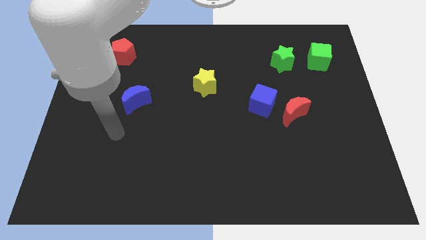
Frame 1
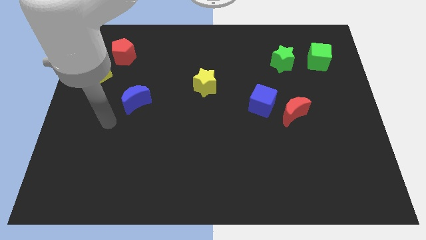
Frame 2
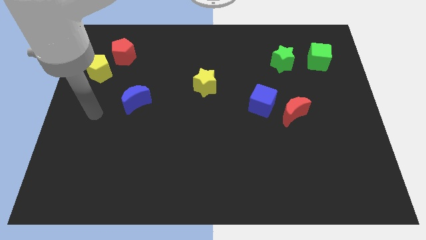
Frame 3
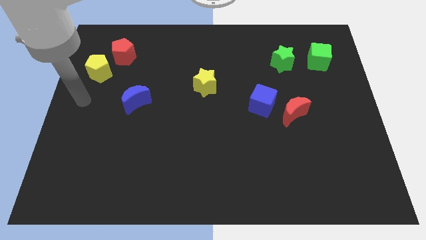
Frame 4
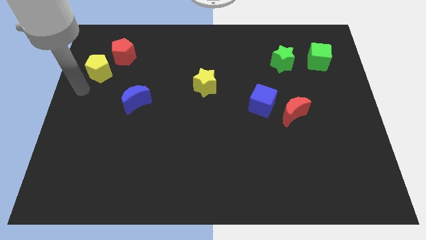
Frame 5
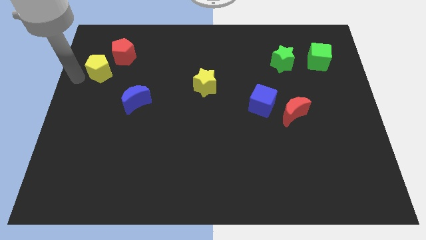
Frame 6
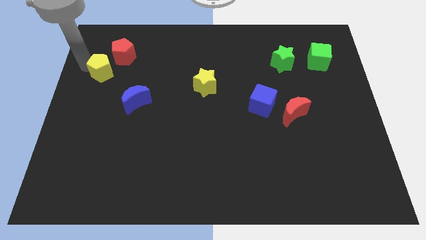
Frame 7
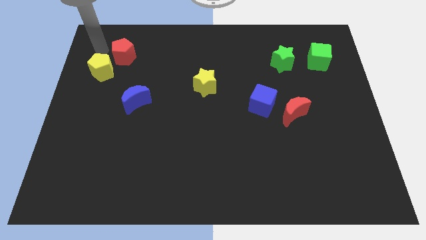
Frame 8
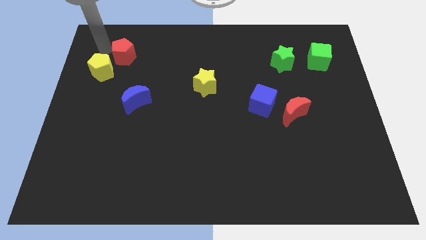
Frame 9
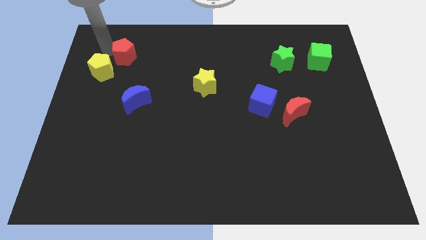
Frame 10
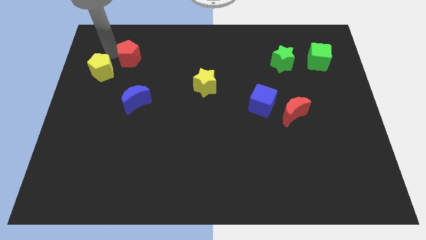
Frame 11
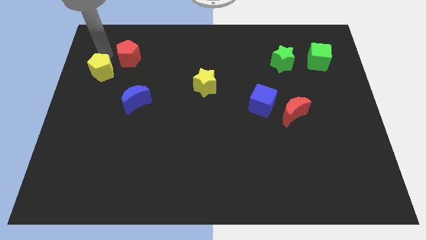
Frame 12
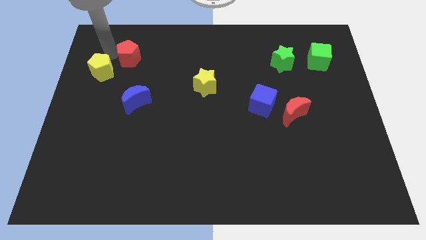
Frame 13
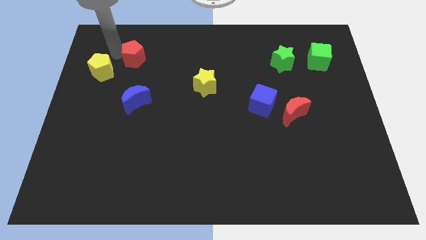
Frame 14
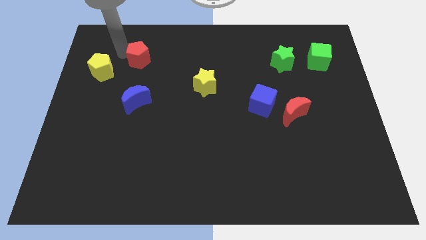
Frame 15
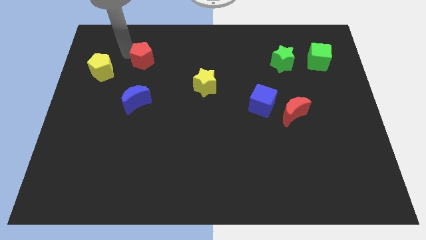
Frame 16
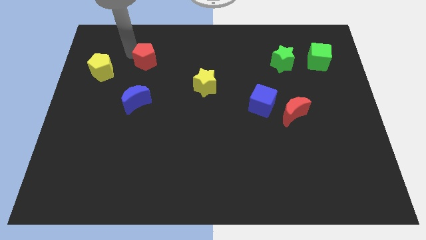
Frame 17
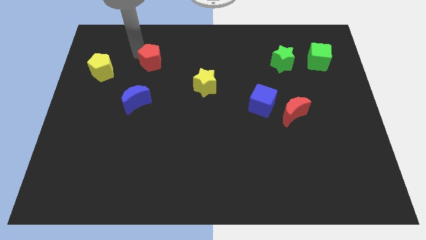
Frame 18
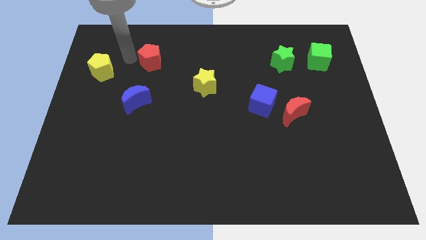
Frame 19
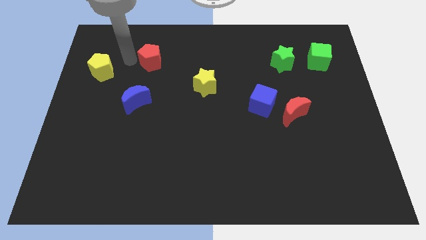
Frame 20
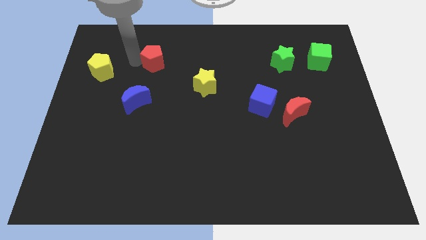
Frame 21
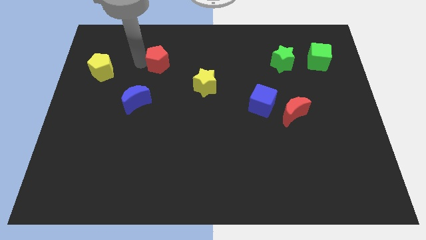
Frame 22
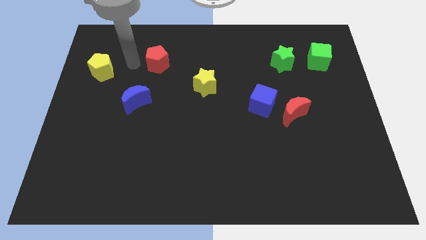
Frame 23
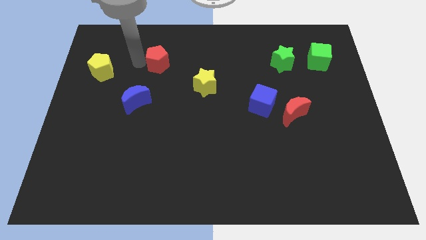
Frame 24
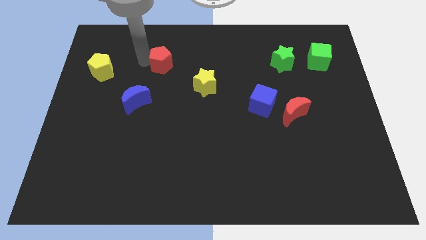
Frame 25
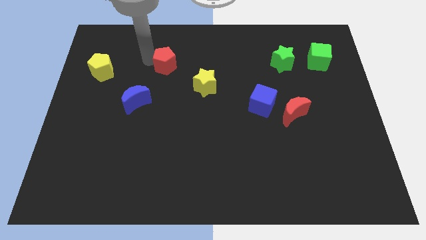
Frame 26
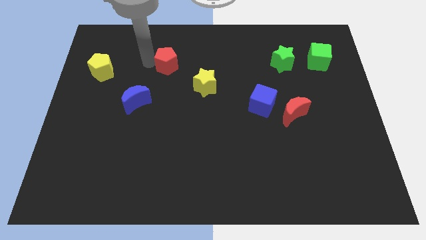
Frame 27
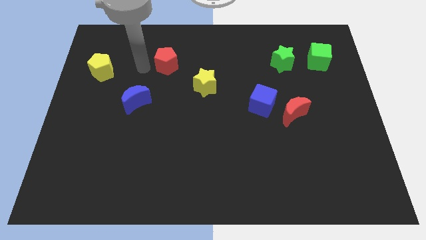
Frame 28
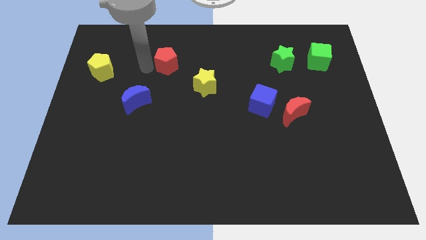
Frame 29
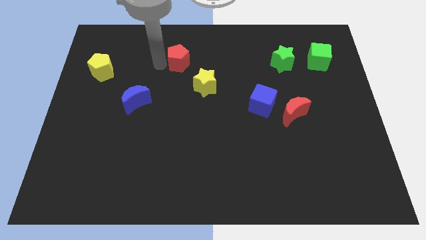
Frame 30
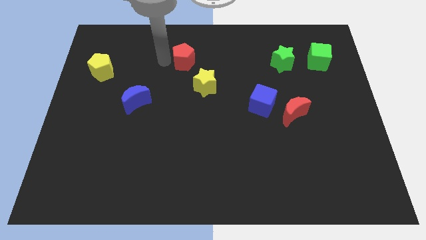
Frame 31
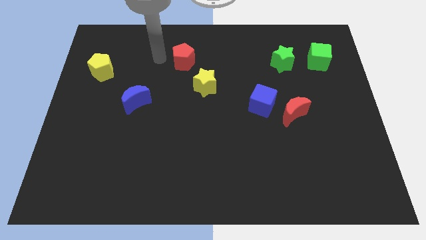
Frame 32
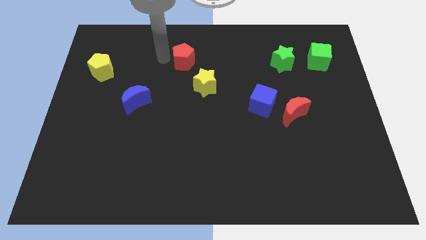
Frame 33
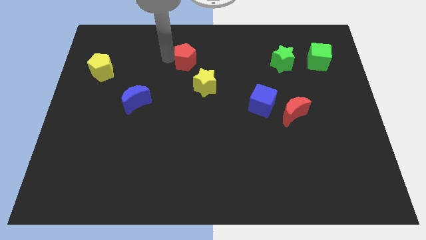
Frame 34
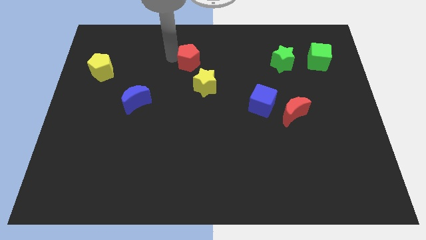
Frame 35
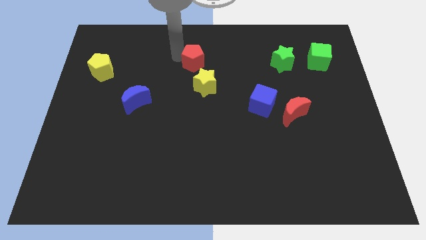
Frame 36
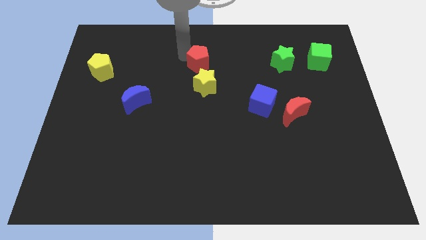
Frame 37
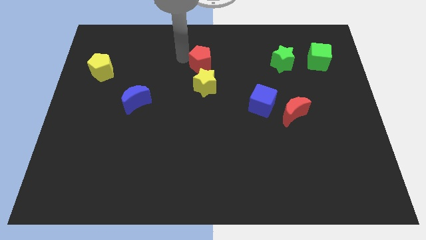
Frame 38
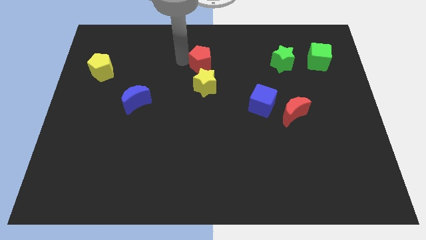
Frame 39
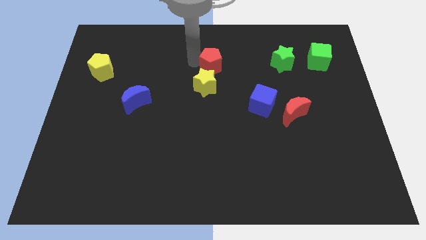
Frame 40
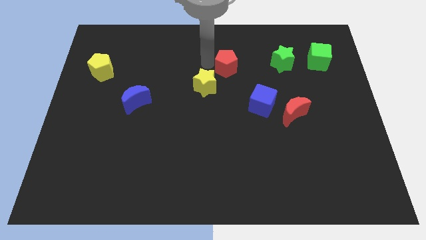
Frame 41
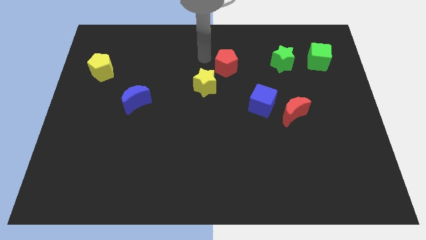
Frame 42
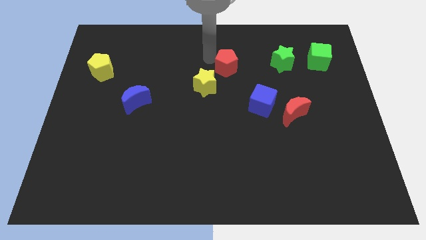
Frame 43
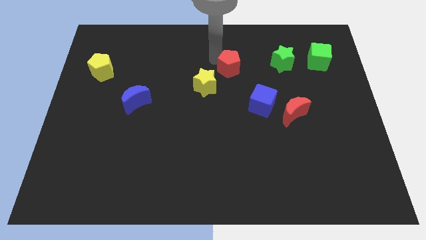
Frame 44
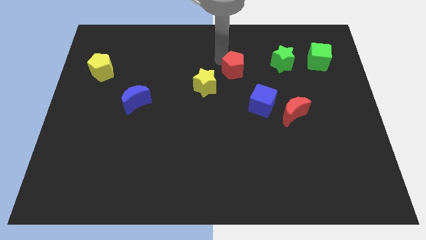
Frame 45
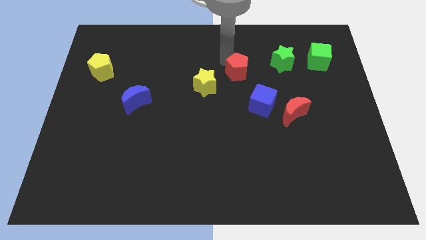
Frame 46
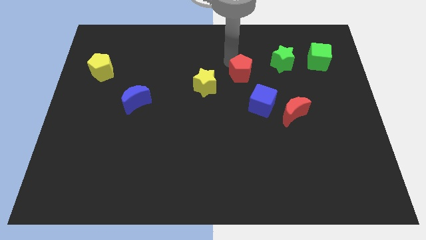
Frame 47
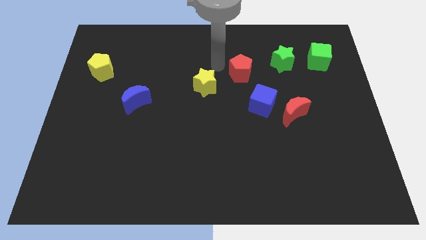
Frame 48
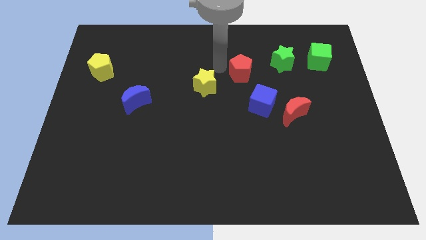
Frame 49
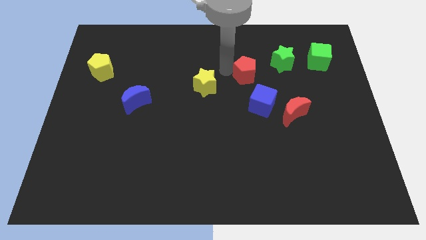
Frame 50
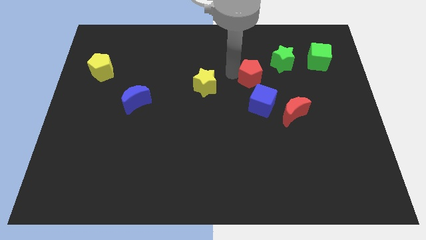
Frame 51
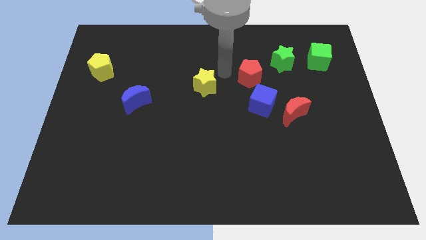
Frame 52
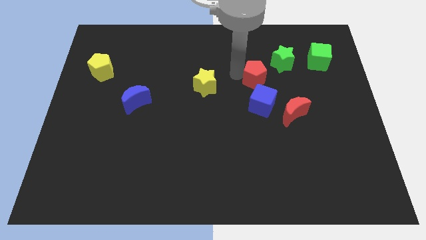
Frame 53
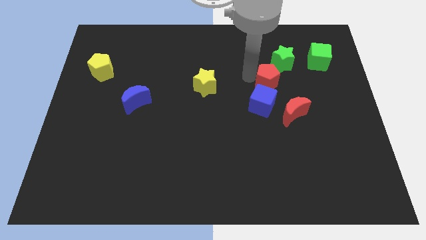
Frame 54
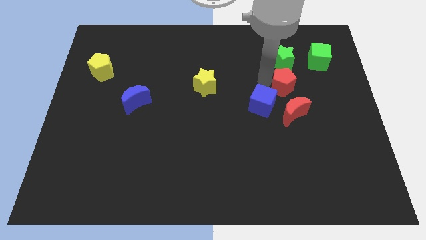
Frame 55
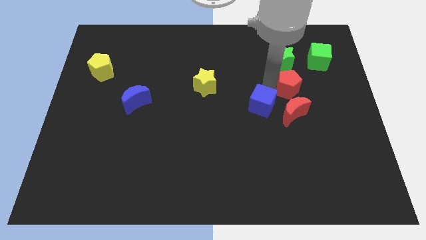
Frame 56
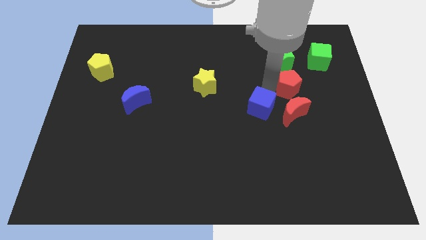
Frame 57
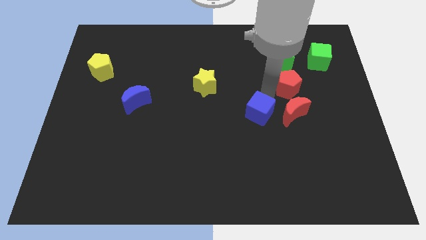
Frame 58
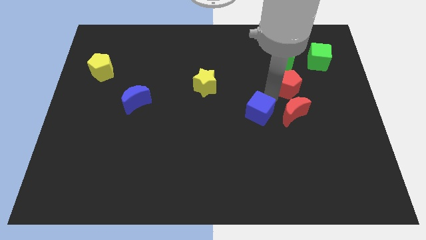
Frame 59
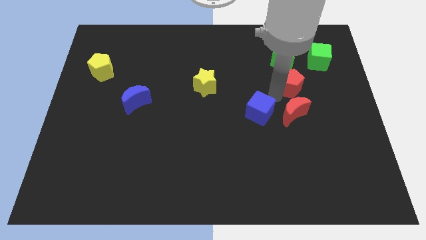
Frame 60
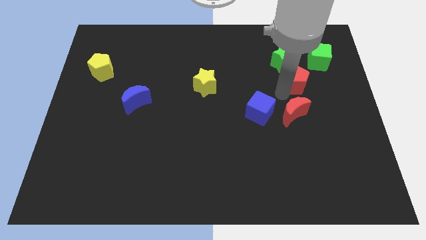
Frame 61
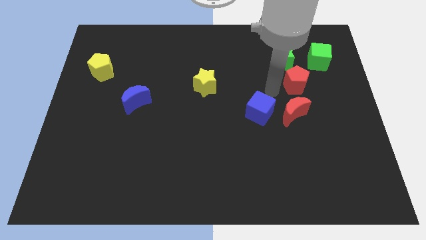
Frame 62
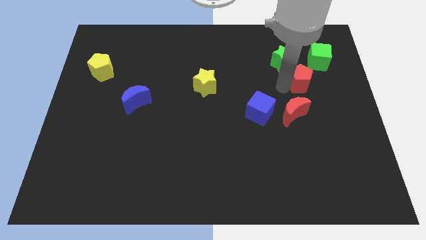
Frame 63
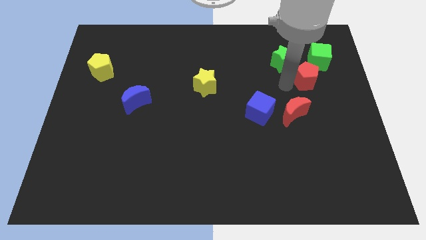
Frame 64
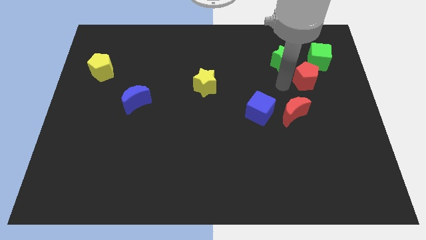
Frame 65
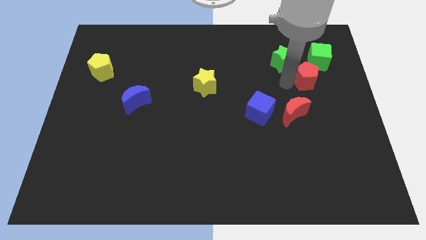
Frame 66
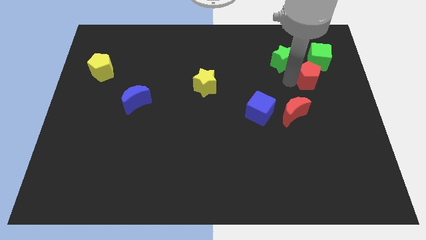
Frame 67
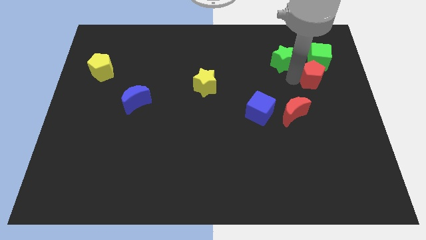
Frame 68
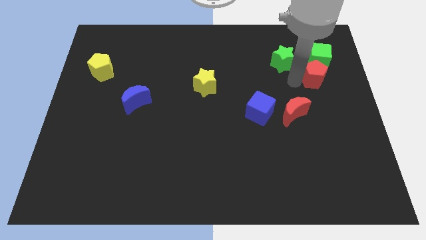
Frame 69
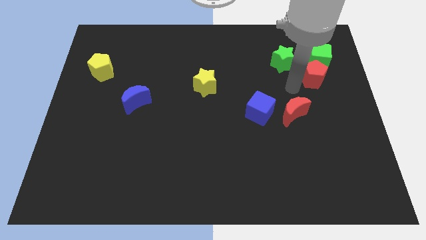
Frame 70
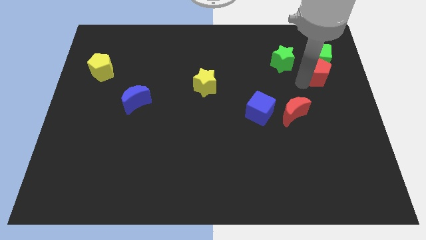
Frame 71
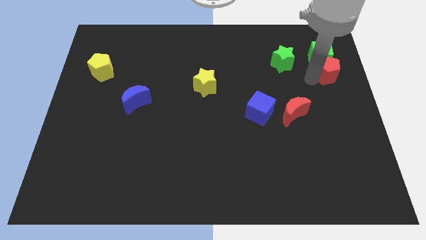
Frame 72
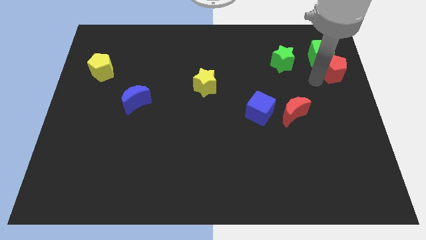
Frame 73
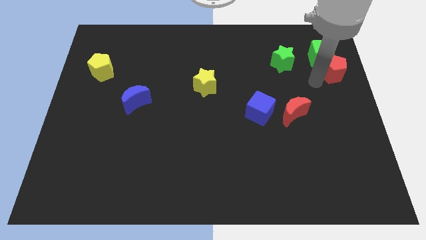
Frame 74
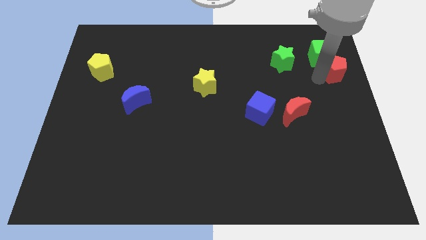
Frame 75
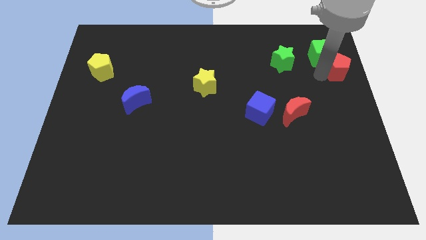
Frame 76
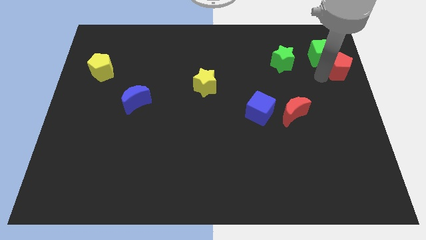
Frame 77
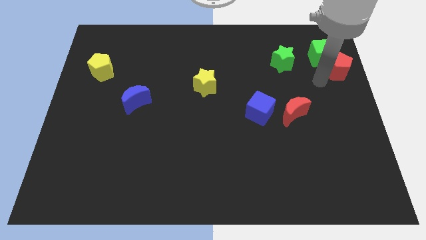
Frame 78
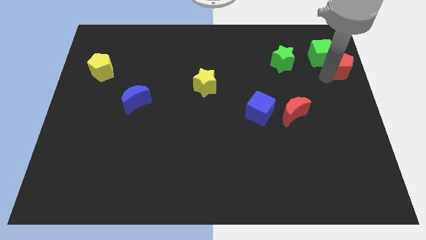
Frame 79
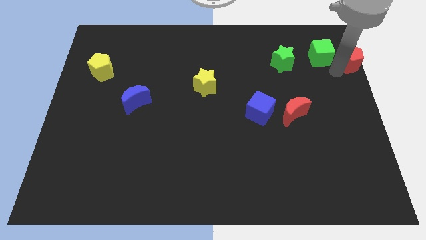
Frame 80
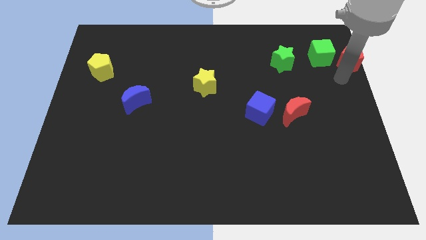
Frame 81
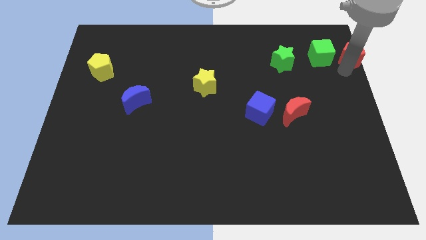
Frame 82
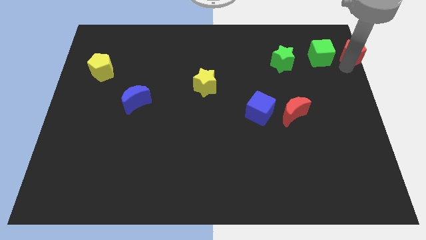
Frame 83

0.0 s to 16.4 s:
slide the red pentagon to the top right of the board
